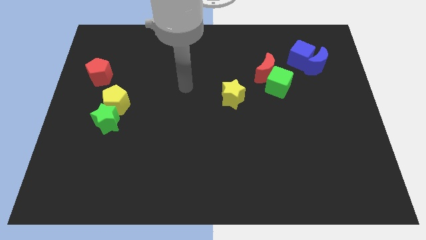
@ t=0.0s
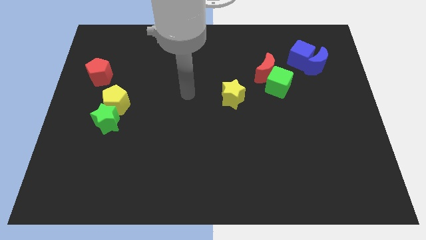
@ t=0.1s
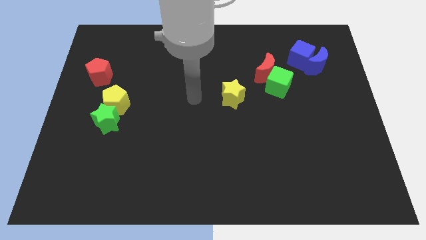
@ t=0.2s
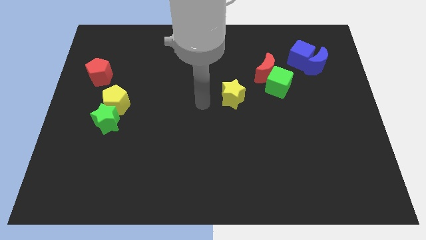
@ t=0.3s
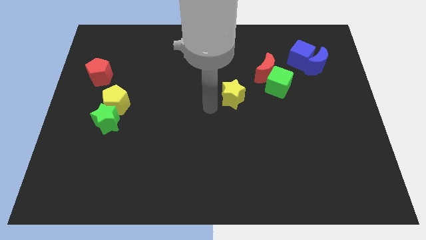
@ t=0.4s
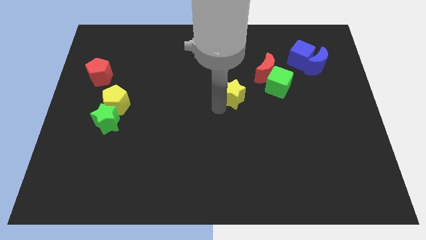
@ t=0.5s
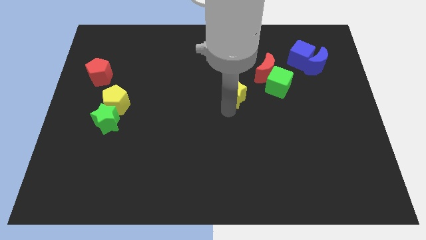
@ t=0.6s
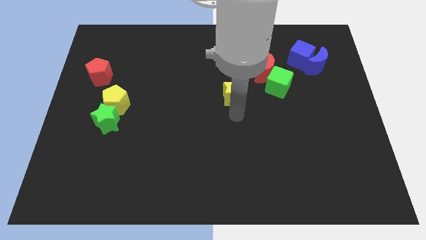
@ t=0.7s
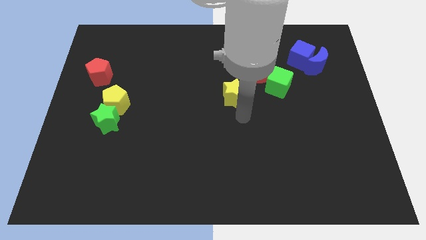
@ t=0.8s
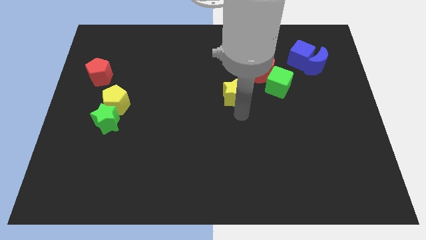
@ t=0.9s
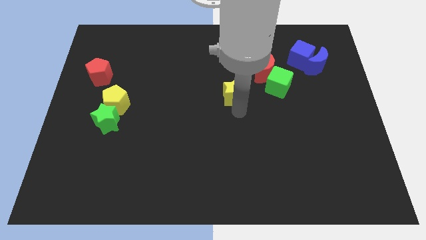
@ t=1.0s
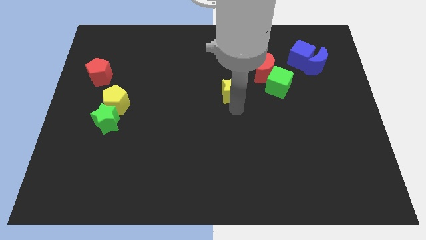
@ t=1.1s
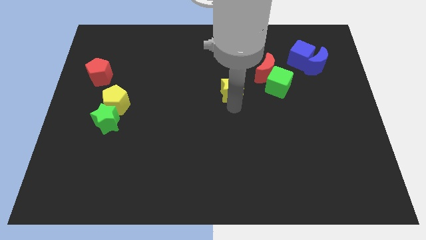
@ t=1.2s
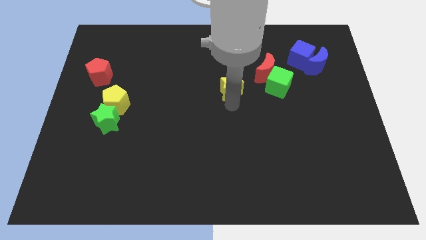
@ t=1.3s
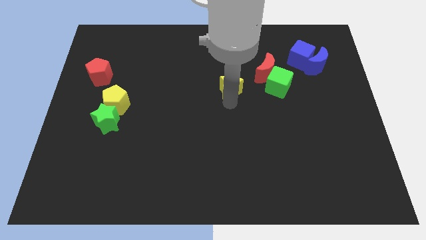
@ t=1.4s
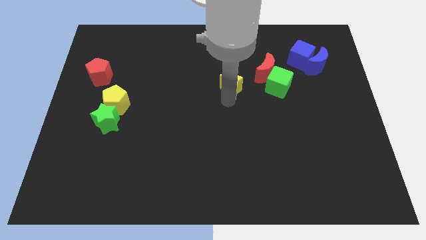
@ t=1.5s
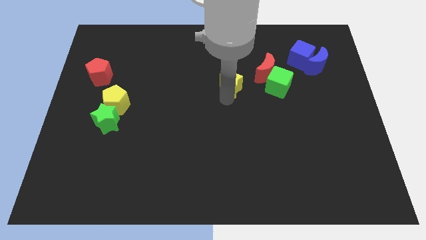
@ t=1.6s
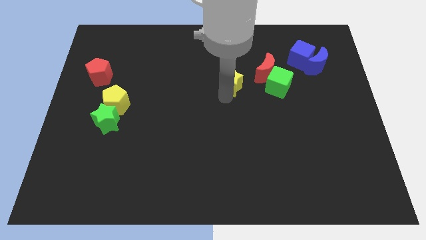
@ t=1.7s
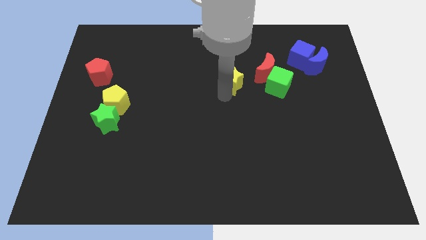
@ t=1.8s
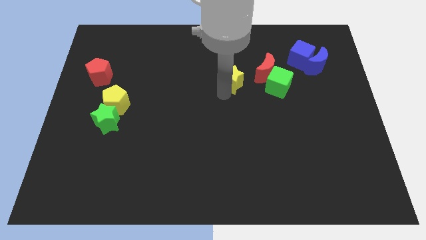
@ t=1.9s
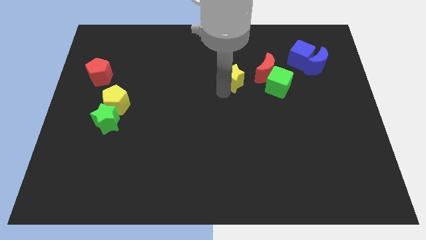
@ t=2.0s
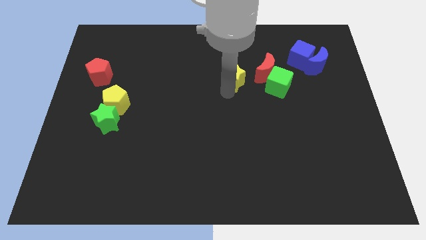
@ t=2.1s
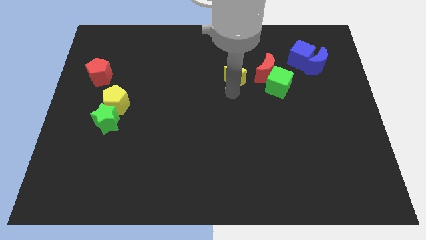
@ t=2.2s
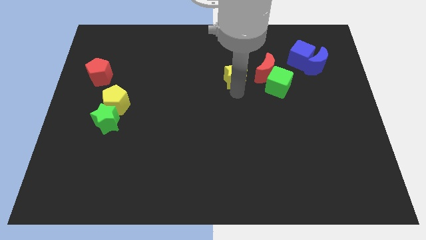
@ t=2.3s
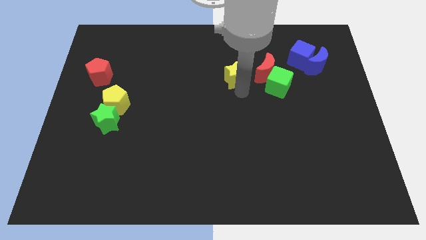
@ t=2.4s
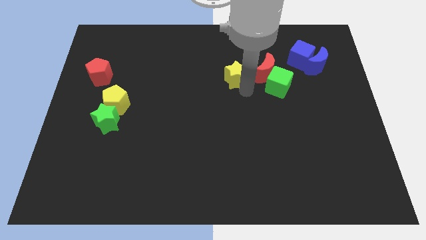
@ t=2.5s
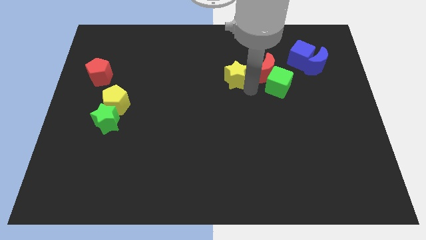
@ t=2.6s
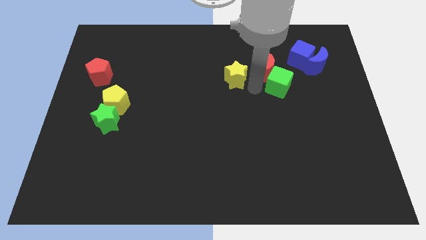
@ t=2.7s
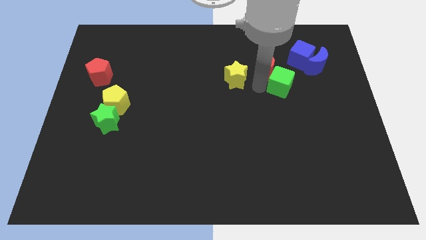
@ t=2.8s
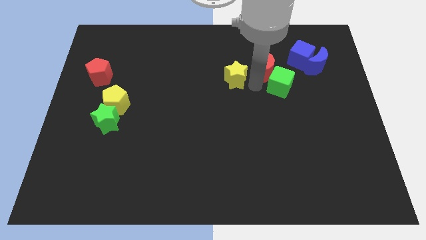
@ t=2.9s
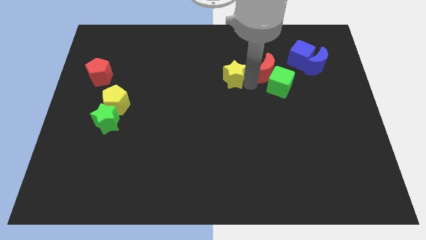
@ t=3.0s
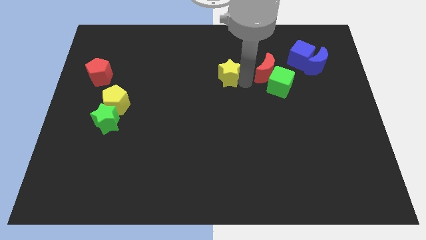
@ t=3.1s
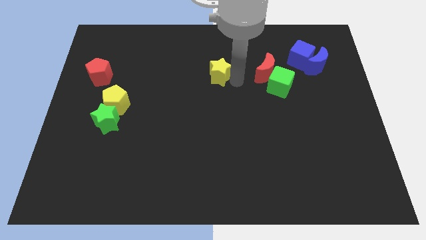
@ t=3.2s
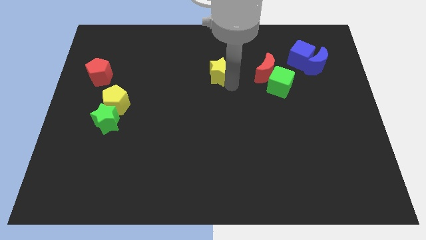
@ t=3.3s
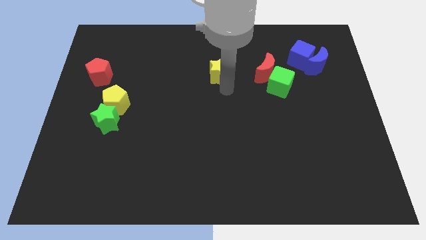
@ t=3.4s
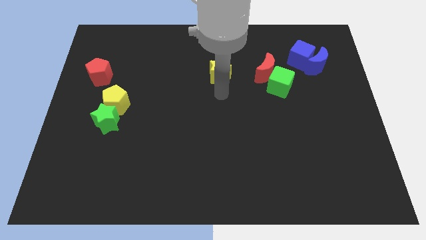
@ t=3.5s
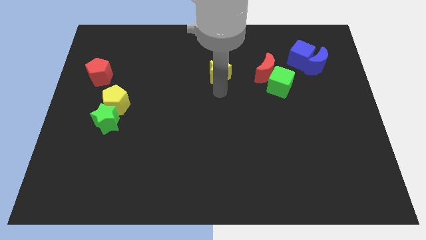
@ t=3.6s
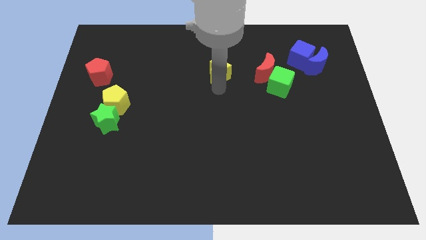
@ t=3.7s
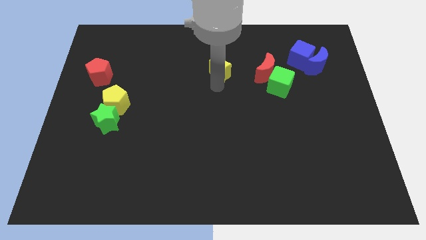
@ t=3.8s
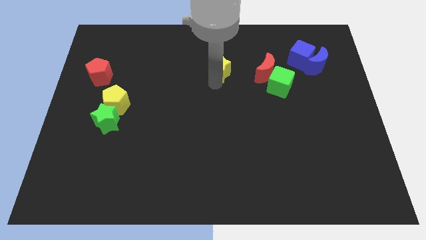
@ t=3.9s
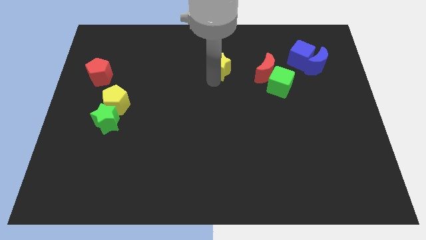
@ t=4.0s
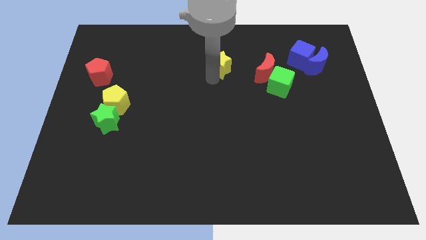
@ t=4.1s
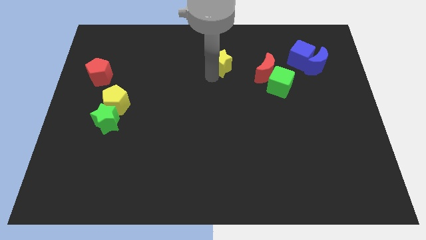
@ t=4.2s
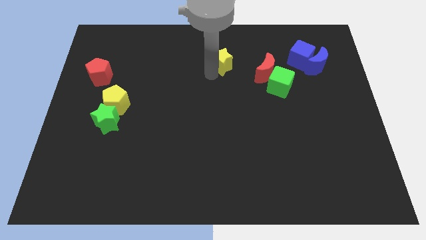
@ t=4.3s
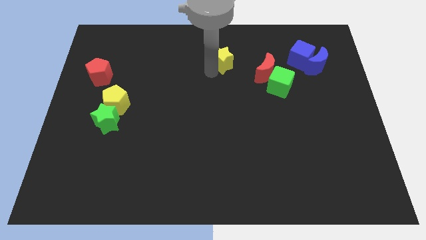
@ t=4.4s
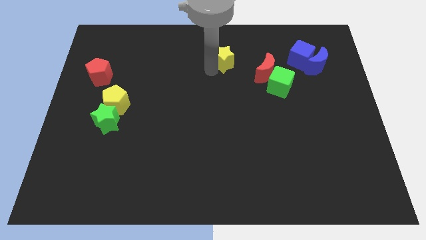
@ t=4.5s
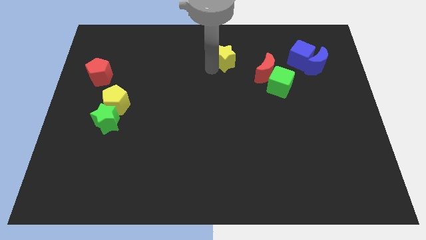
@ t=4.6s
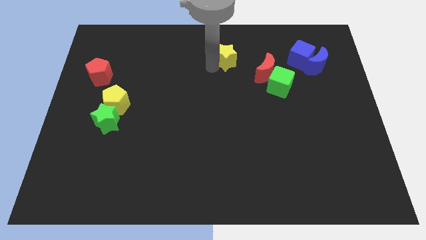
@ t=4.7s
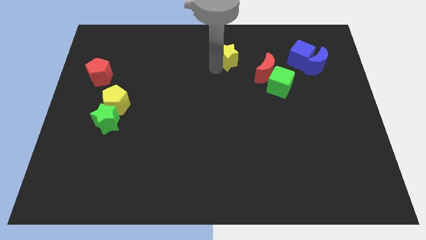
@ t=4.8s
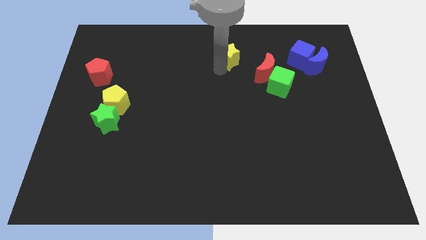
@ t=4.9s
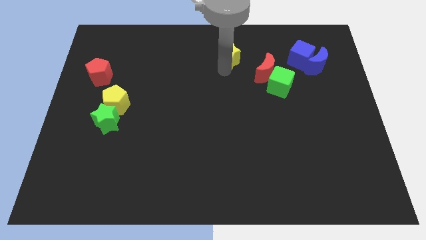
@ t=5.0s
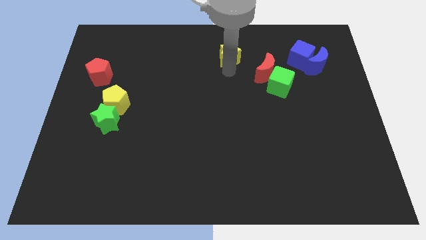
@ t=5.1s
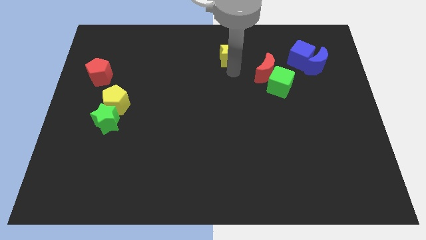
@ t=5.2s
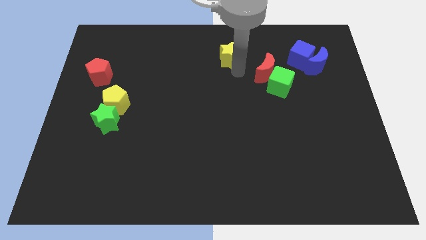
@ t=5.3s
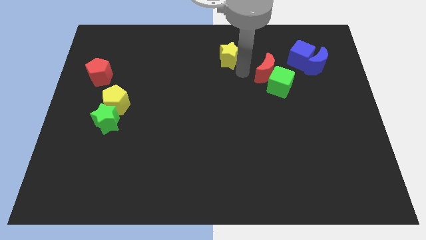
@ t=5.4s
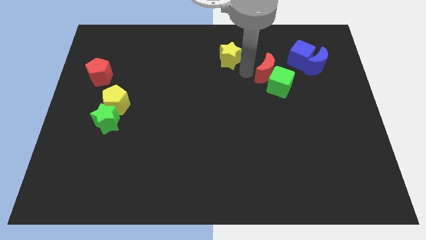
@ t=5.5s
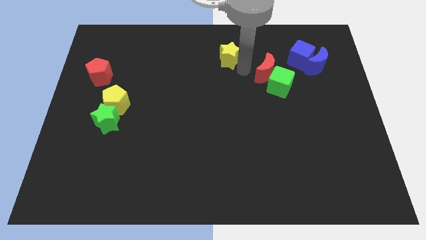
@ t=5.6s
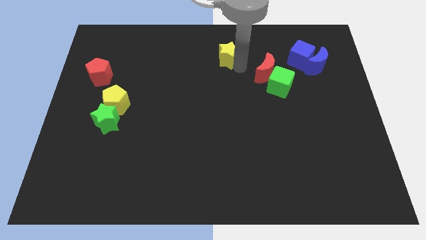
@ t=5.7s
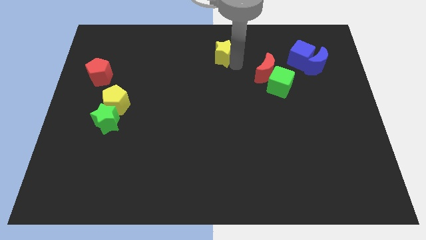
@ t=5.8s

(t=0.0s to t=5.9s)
put the yellow star to the towards your base

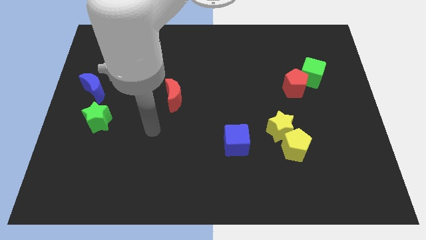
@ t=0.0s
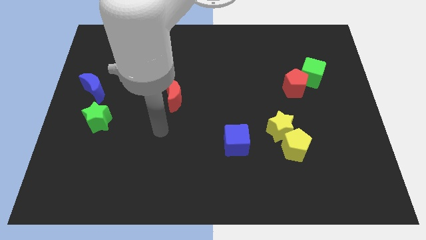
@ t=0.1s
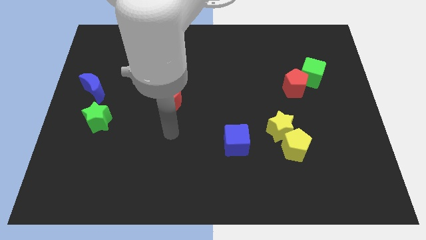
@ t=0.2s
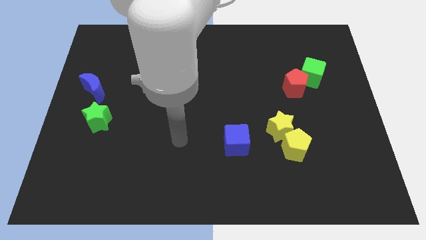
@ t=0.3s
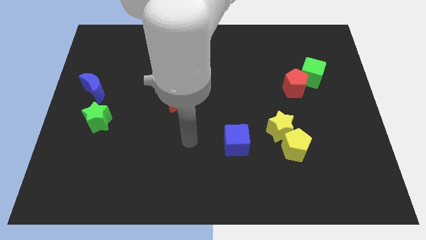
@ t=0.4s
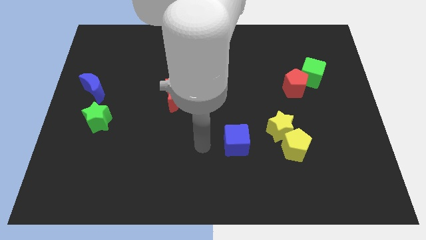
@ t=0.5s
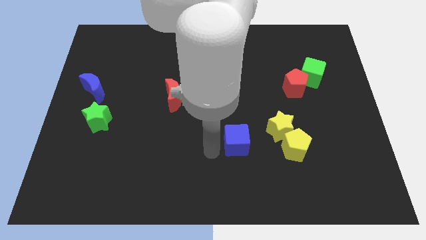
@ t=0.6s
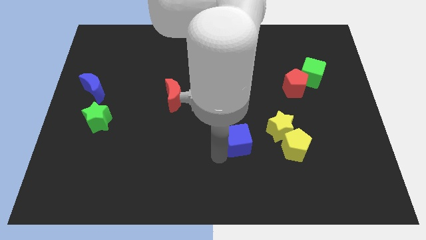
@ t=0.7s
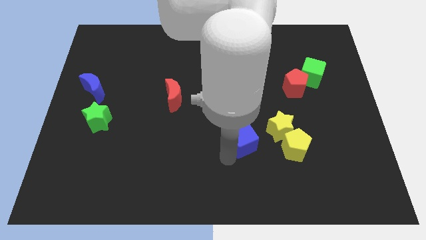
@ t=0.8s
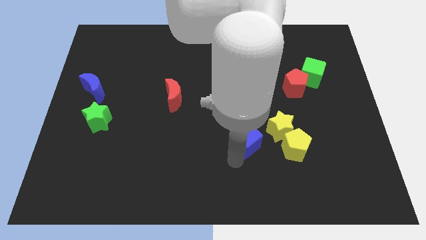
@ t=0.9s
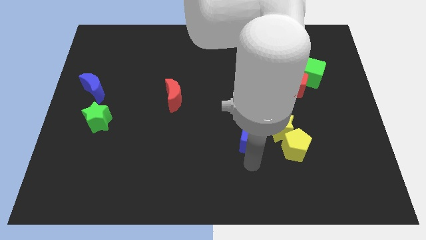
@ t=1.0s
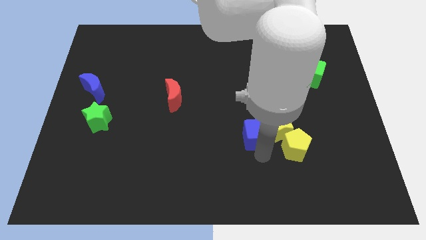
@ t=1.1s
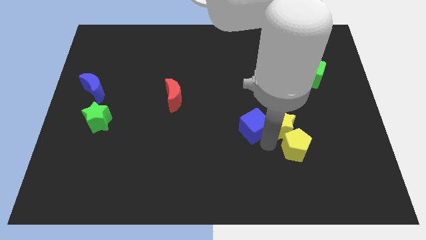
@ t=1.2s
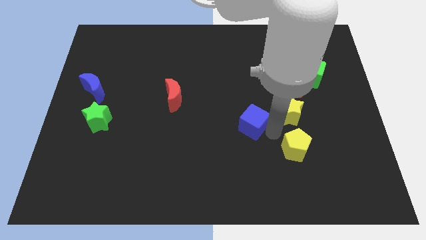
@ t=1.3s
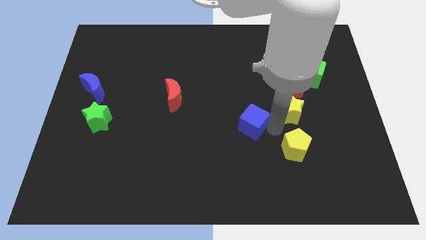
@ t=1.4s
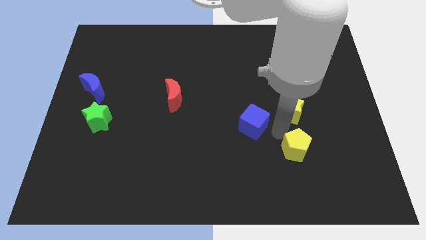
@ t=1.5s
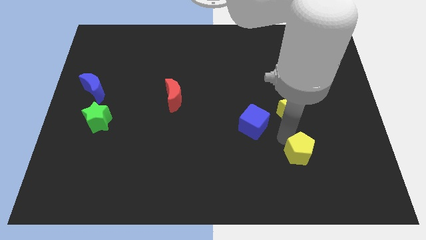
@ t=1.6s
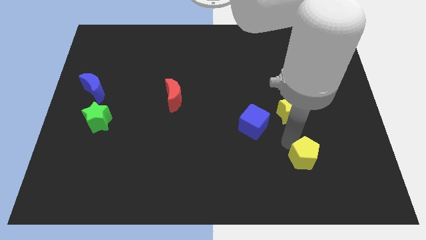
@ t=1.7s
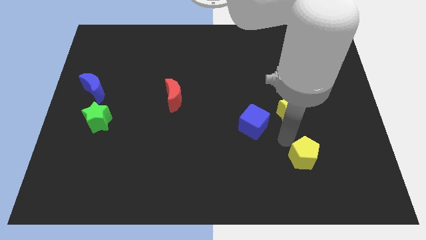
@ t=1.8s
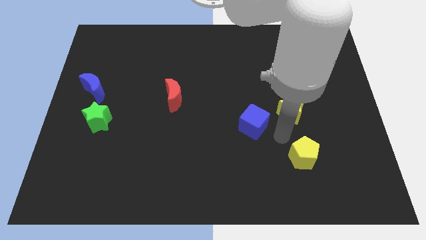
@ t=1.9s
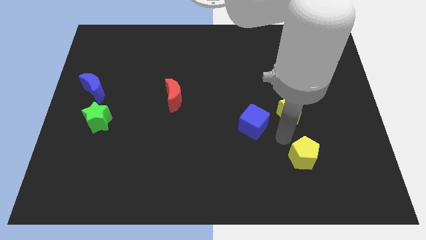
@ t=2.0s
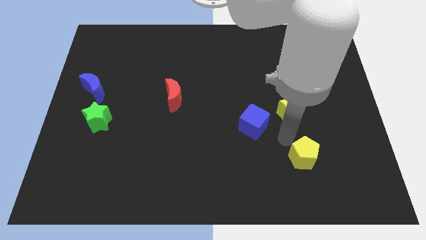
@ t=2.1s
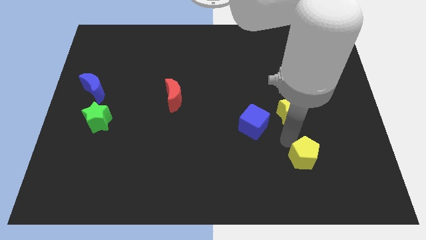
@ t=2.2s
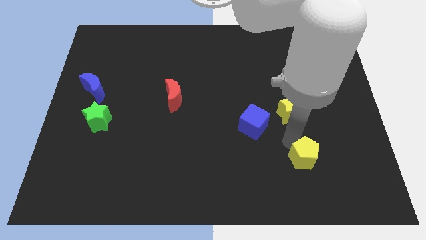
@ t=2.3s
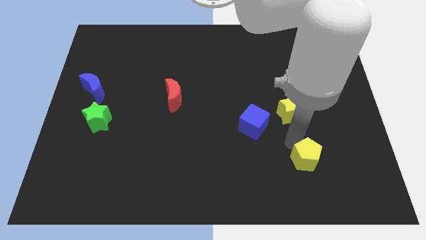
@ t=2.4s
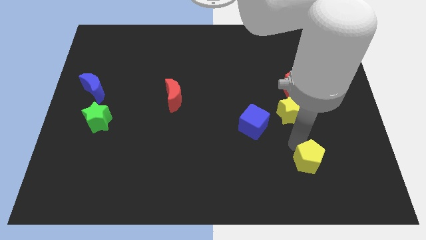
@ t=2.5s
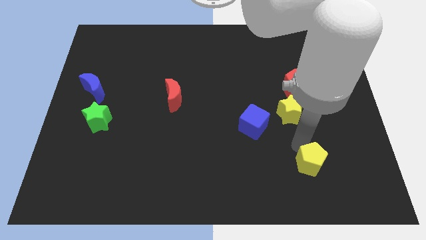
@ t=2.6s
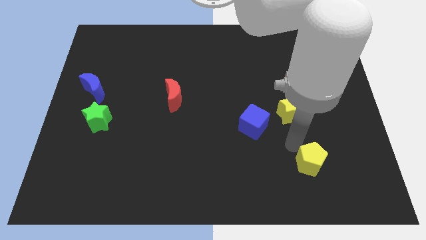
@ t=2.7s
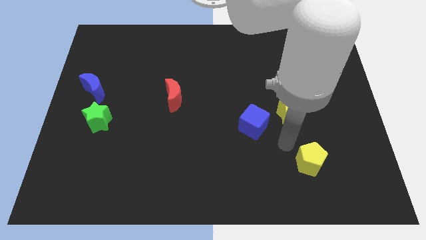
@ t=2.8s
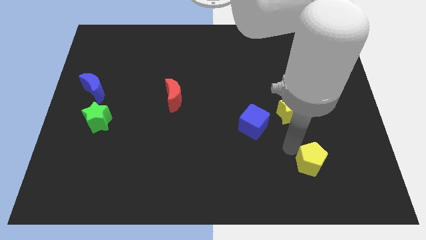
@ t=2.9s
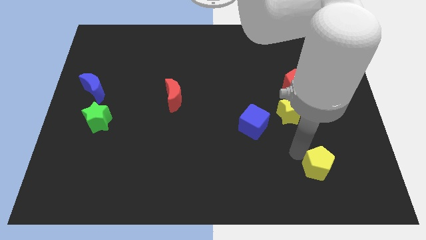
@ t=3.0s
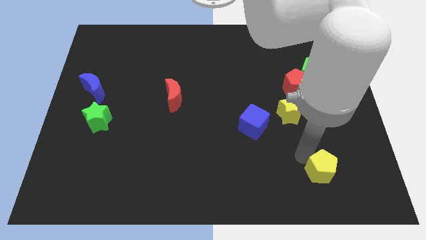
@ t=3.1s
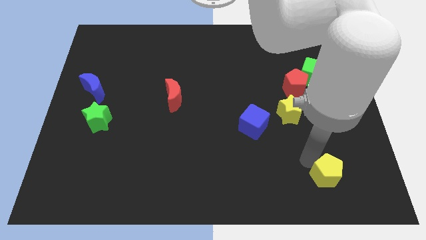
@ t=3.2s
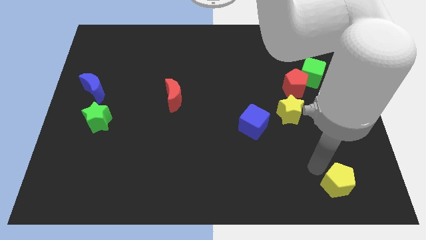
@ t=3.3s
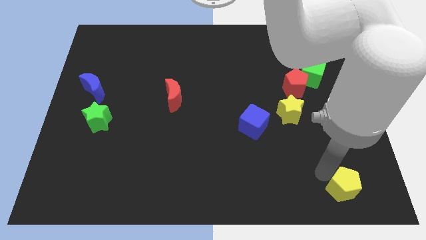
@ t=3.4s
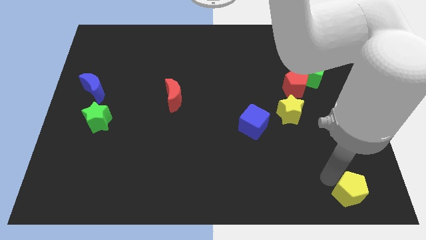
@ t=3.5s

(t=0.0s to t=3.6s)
slide the yellow pentagon to the bottom right of the board
